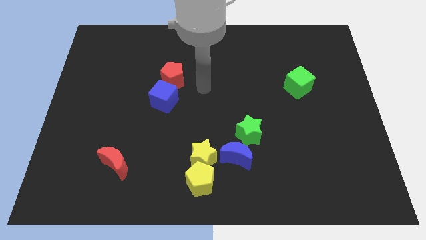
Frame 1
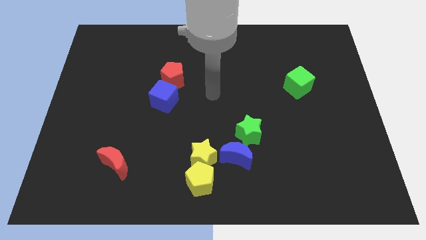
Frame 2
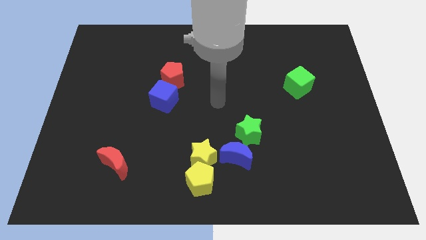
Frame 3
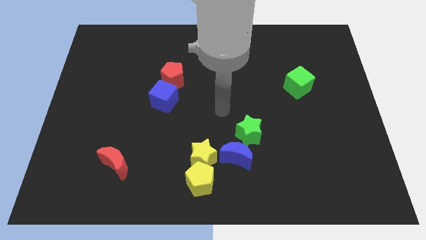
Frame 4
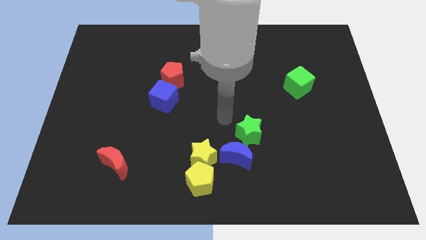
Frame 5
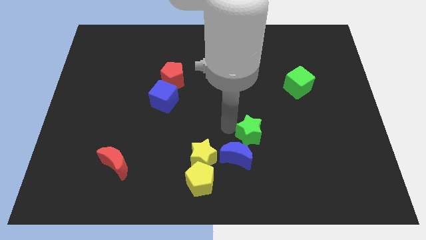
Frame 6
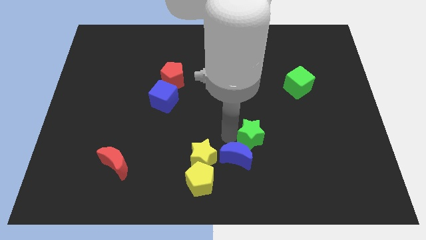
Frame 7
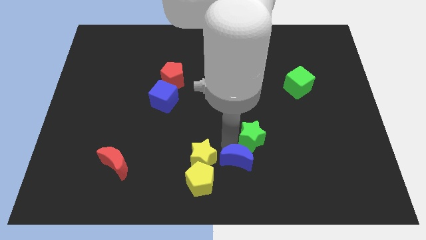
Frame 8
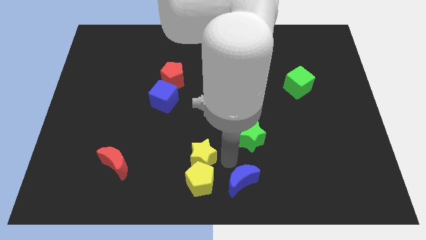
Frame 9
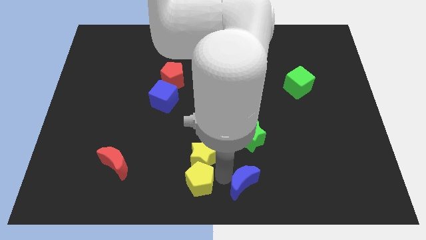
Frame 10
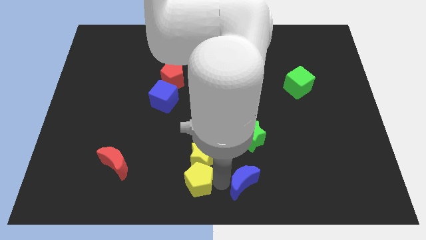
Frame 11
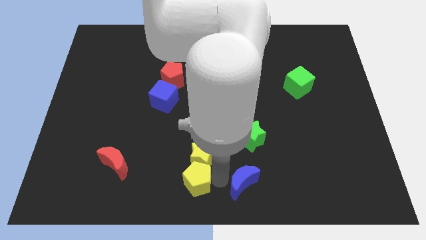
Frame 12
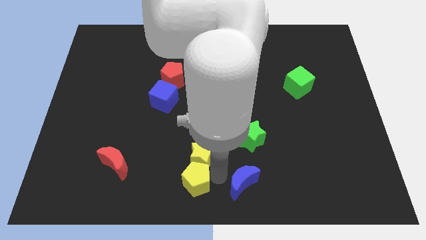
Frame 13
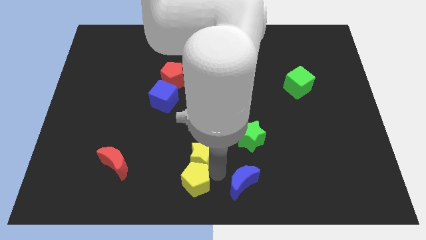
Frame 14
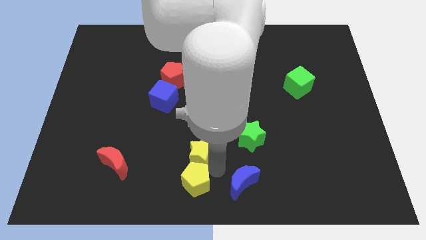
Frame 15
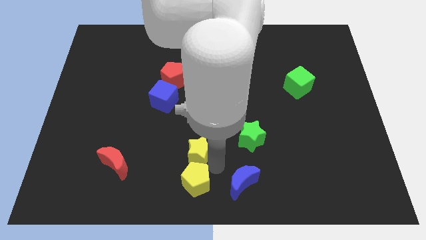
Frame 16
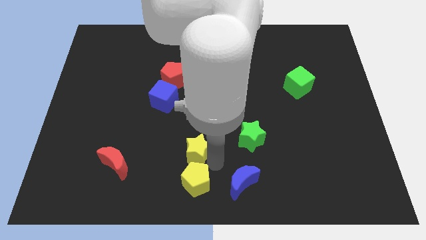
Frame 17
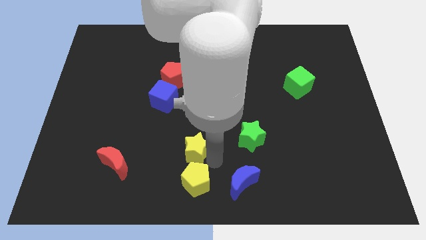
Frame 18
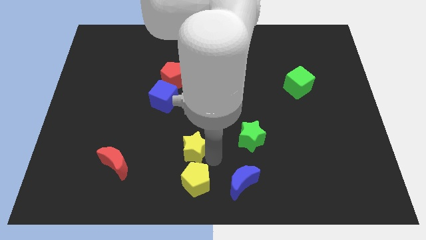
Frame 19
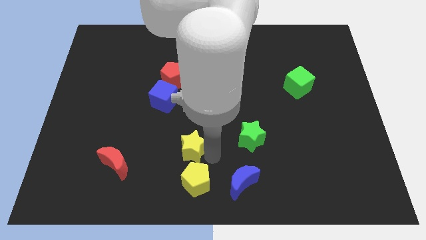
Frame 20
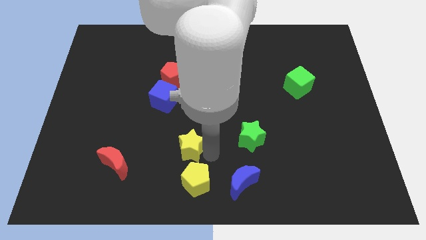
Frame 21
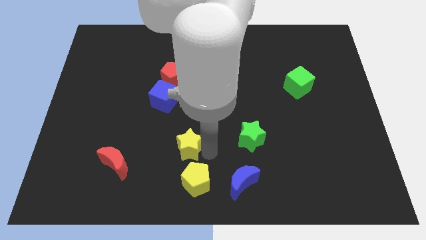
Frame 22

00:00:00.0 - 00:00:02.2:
pull the yellow star apart from the yellow pentagon and blue moon

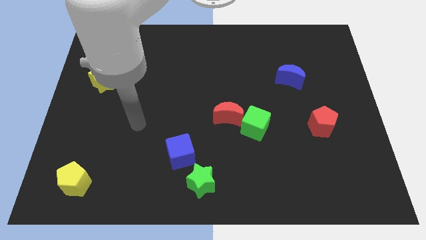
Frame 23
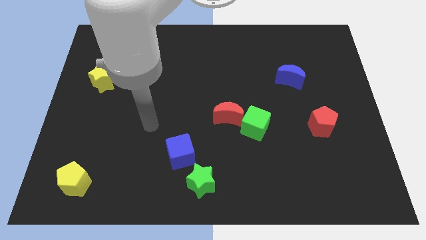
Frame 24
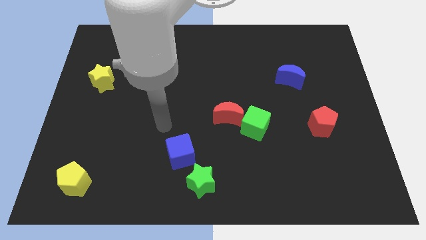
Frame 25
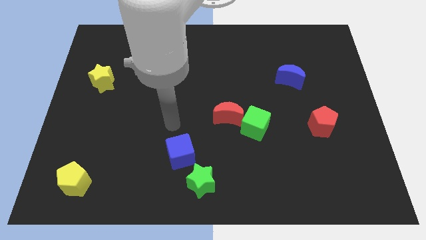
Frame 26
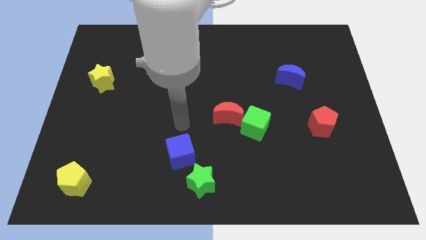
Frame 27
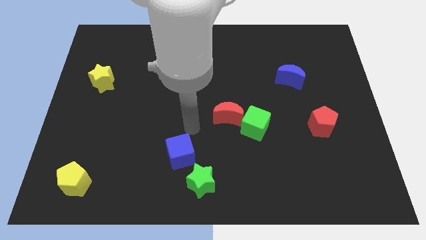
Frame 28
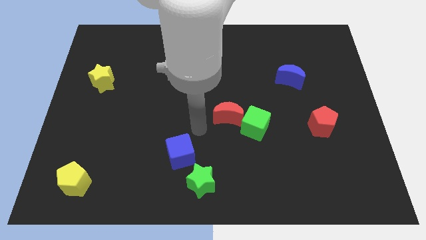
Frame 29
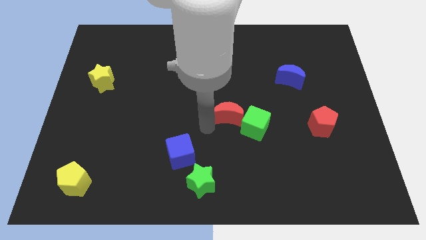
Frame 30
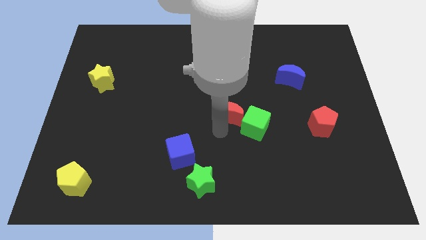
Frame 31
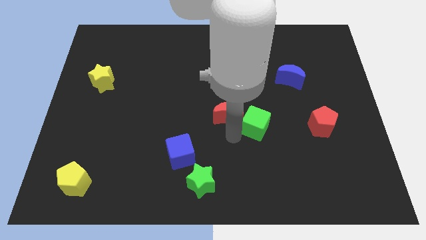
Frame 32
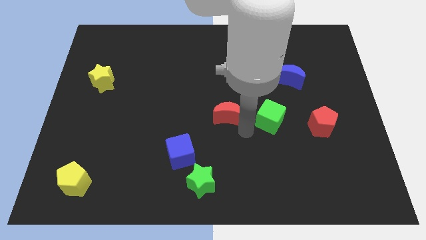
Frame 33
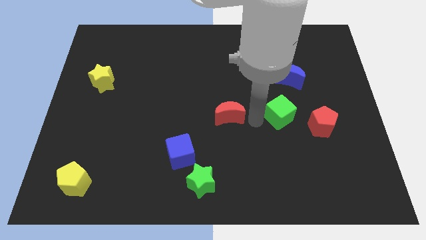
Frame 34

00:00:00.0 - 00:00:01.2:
pull the red moon apart from the green cube

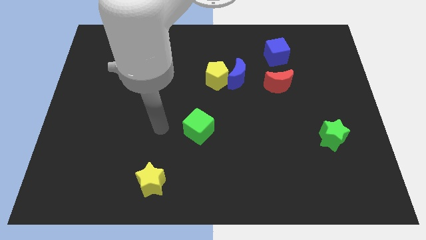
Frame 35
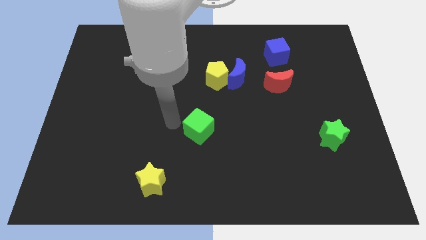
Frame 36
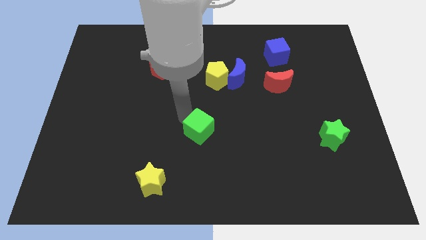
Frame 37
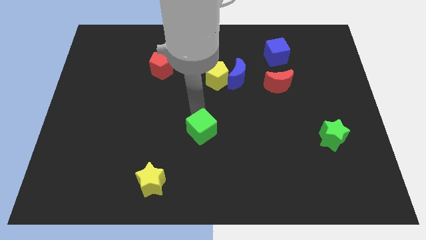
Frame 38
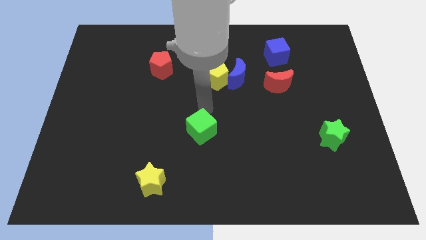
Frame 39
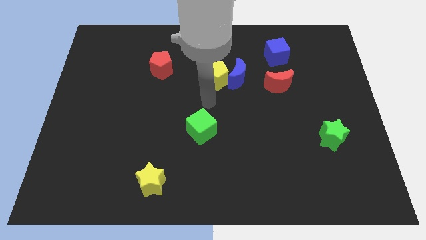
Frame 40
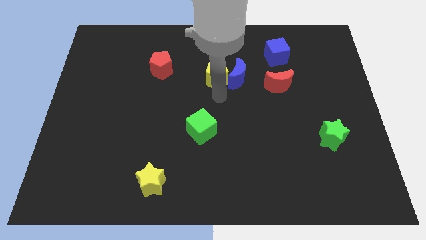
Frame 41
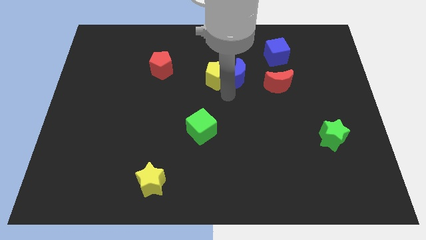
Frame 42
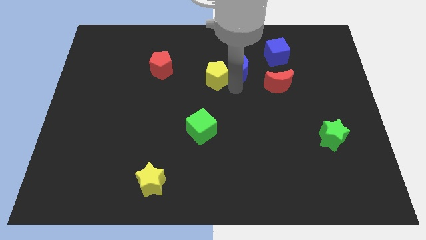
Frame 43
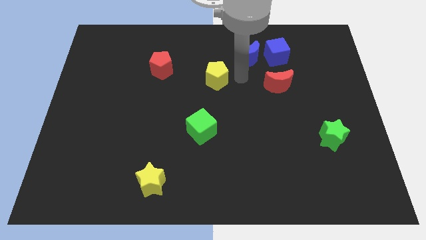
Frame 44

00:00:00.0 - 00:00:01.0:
separate the yellow pentagon from the blue moon

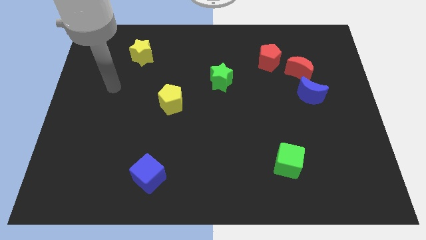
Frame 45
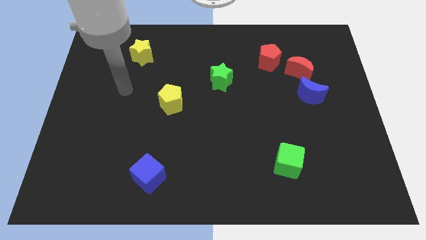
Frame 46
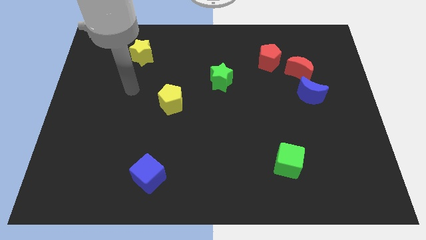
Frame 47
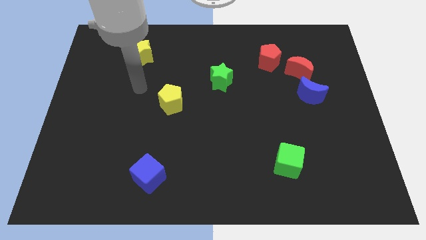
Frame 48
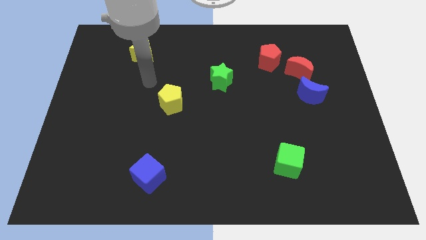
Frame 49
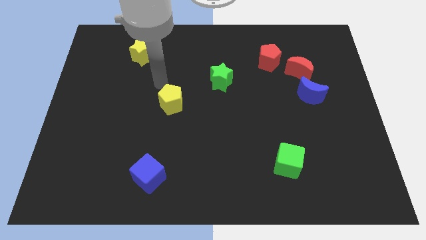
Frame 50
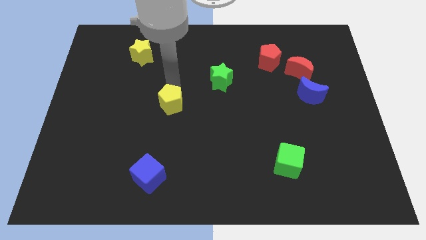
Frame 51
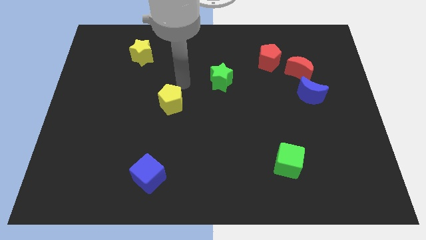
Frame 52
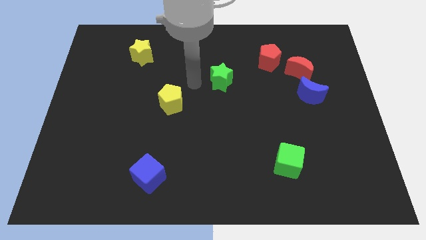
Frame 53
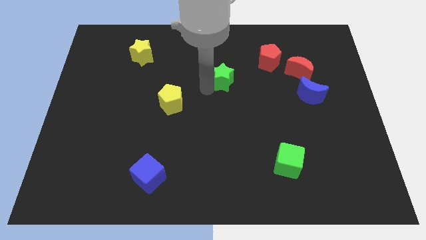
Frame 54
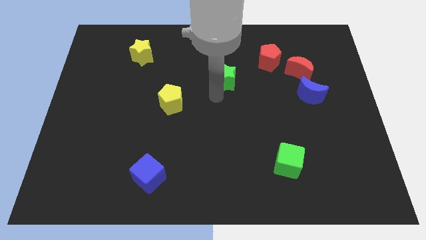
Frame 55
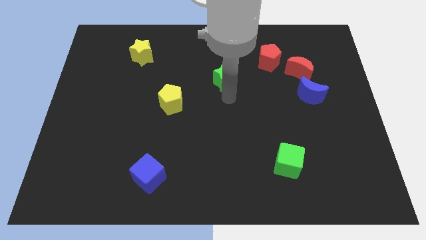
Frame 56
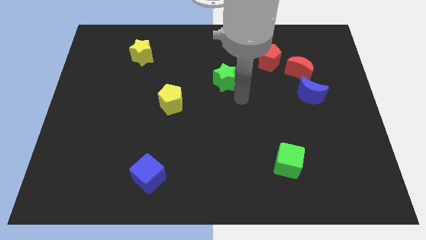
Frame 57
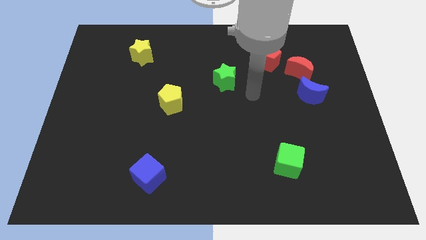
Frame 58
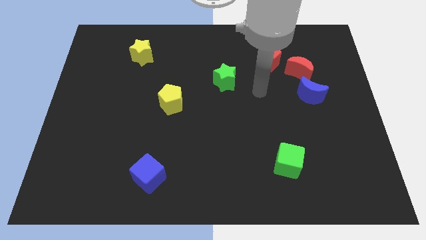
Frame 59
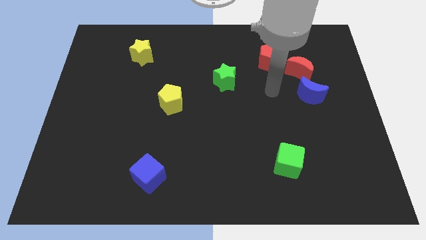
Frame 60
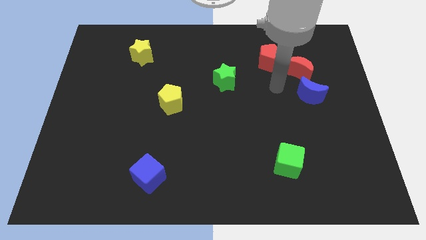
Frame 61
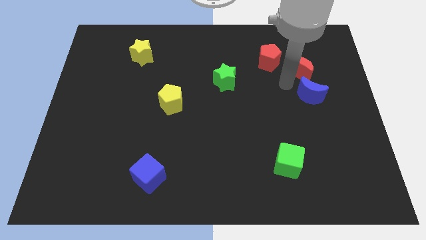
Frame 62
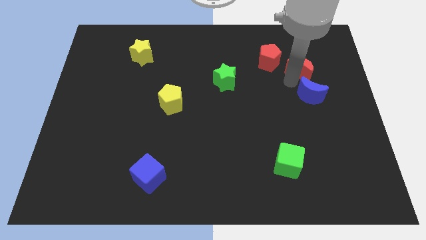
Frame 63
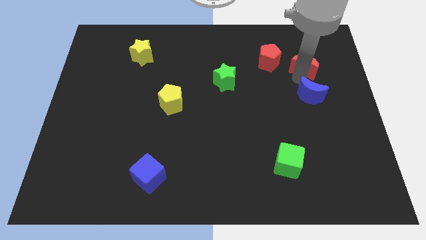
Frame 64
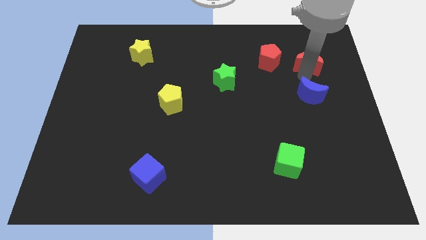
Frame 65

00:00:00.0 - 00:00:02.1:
move the blue moon away from the red moon

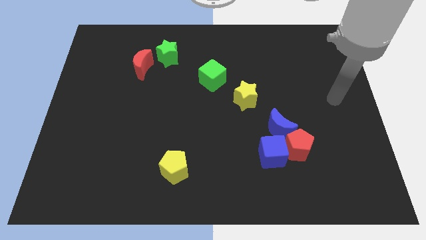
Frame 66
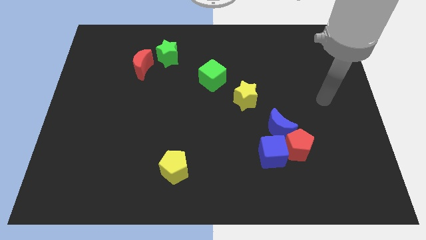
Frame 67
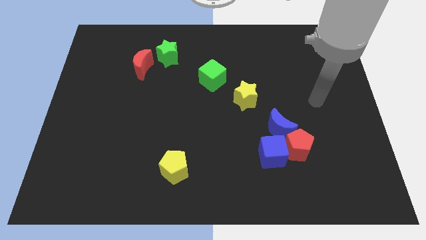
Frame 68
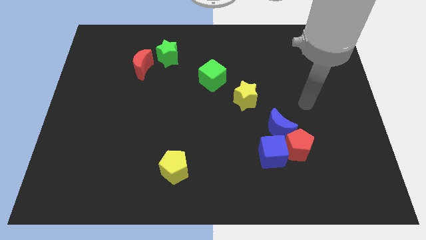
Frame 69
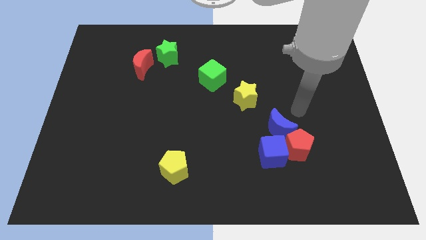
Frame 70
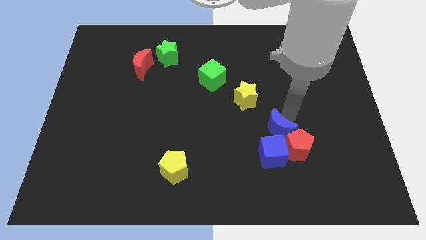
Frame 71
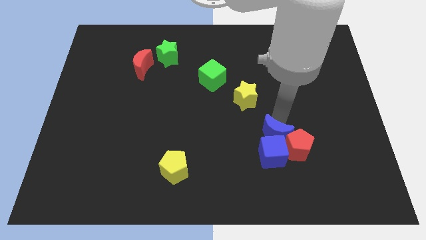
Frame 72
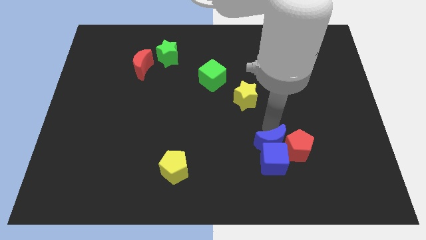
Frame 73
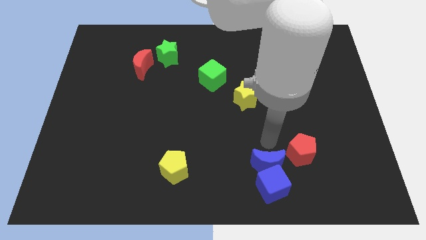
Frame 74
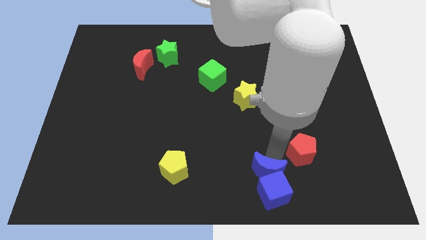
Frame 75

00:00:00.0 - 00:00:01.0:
move the red pentagon away from the blue cube and blue moon

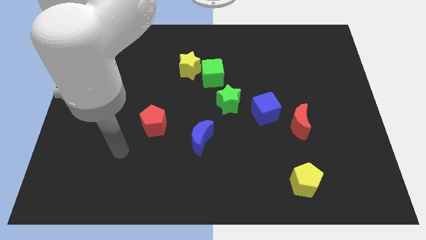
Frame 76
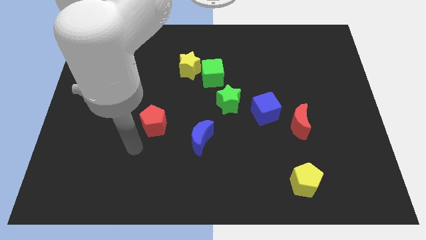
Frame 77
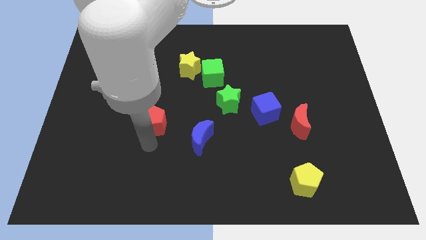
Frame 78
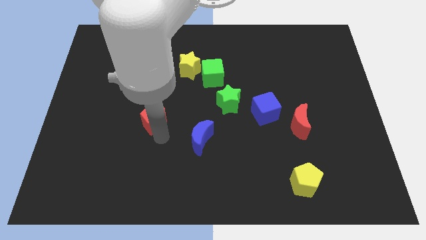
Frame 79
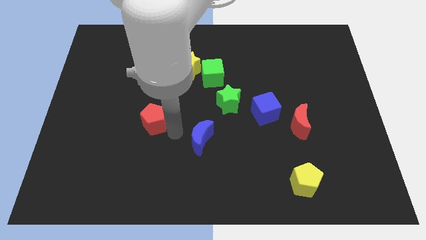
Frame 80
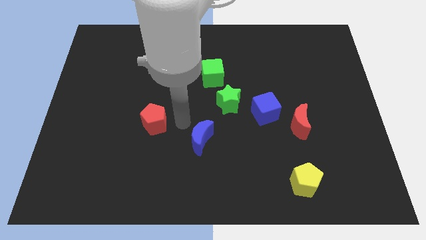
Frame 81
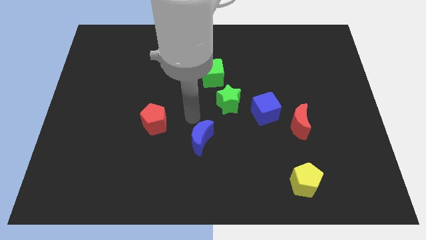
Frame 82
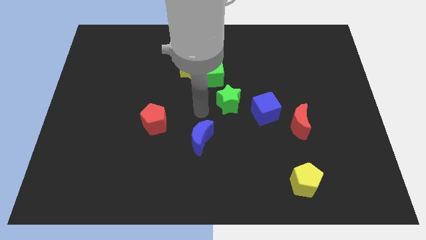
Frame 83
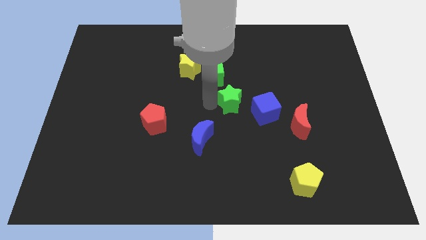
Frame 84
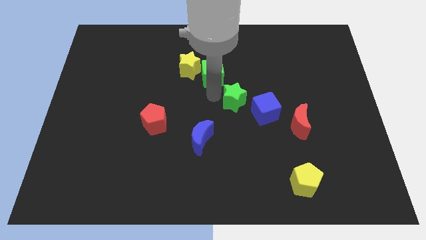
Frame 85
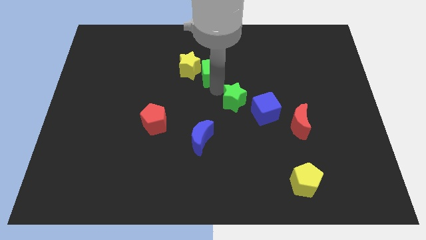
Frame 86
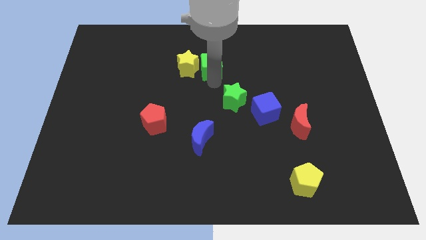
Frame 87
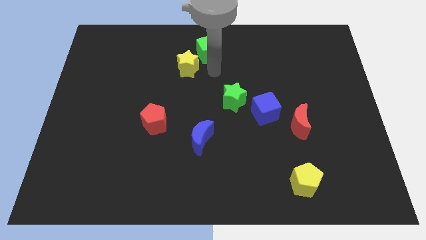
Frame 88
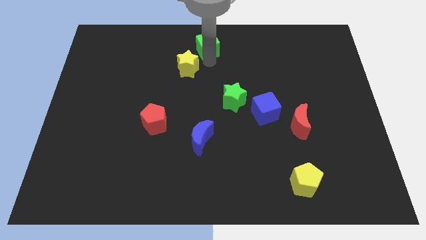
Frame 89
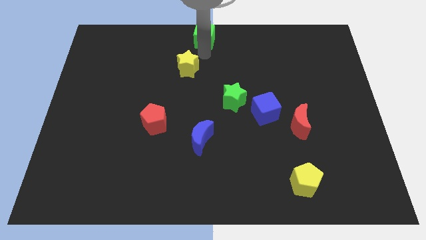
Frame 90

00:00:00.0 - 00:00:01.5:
move the yellow star away from the green cube

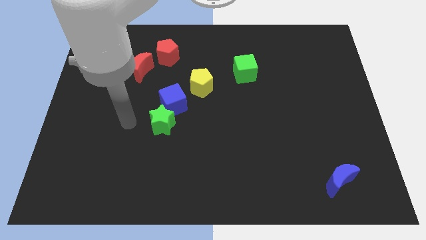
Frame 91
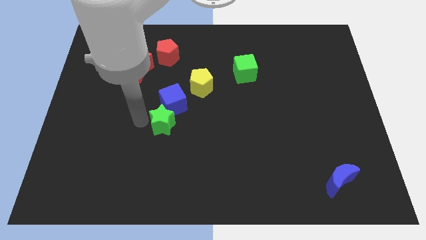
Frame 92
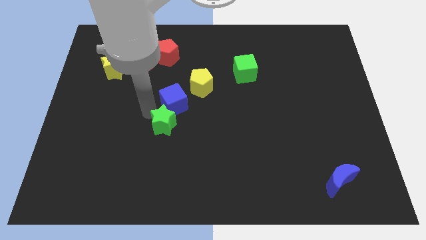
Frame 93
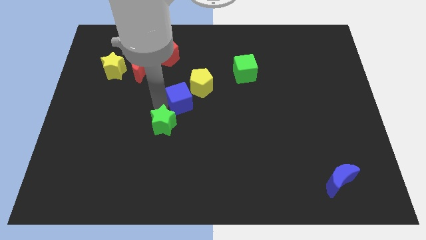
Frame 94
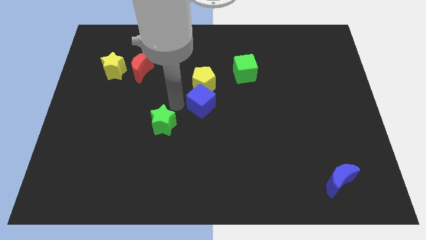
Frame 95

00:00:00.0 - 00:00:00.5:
move the green star away from the blue cube
